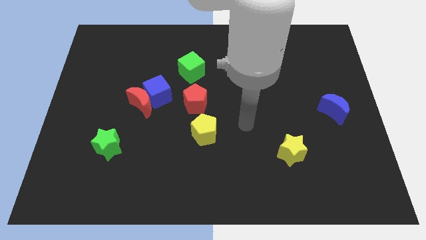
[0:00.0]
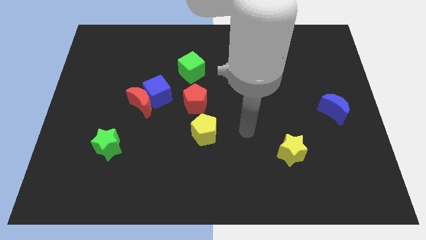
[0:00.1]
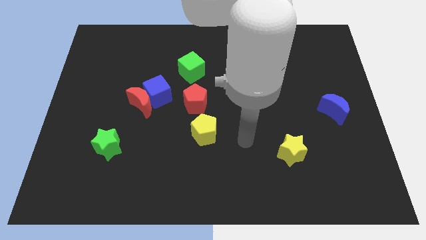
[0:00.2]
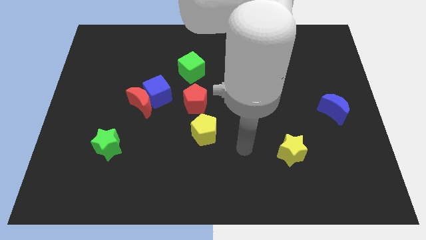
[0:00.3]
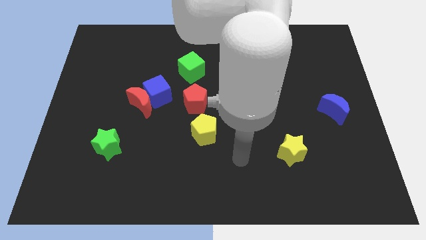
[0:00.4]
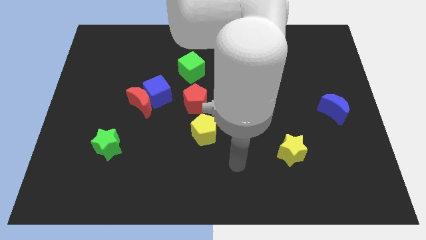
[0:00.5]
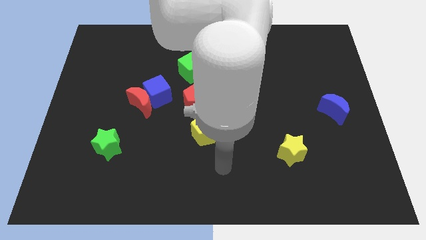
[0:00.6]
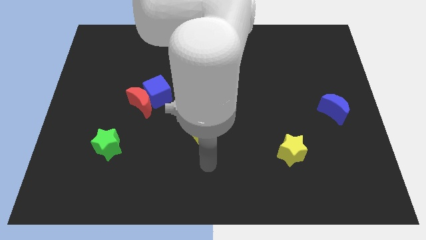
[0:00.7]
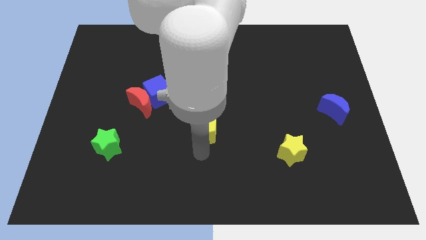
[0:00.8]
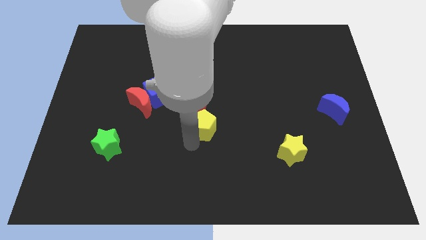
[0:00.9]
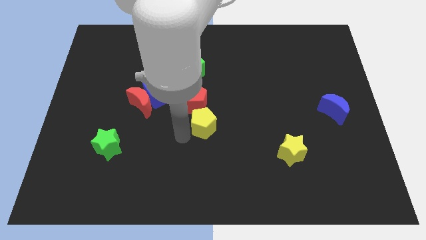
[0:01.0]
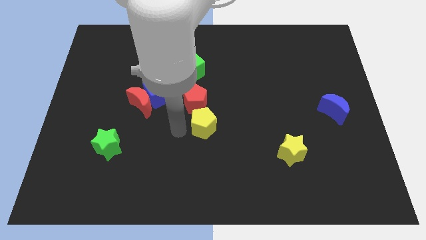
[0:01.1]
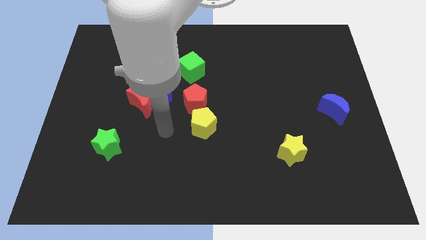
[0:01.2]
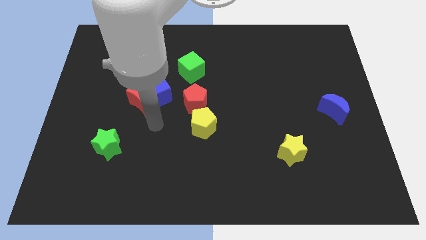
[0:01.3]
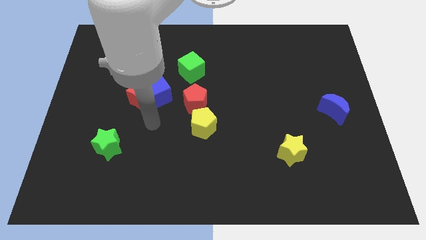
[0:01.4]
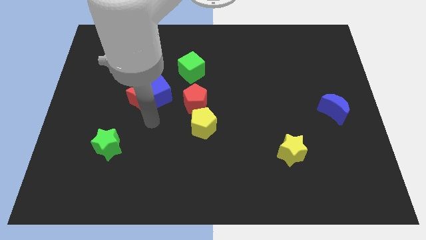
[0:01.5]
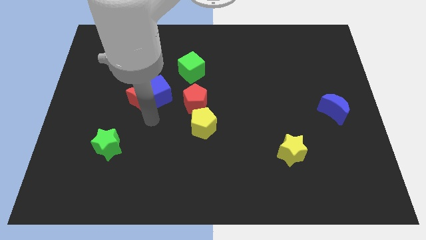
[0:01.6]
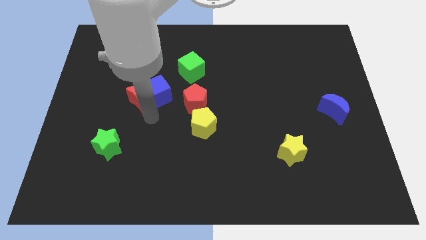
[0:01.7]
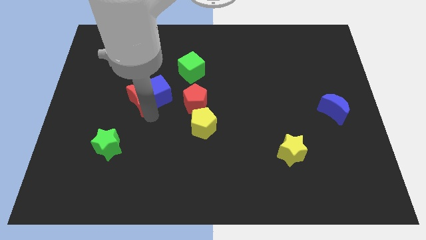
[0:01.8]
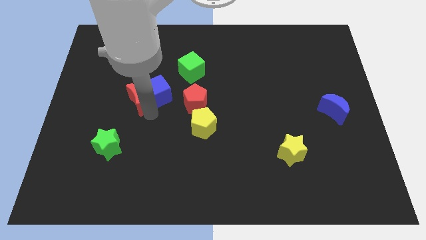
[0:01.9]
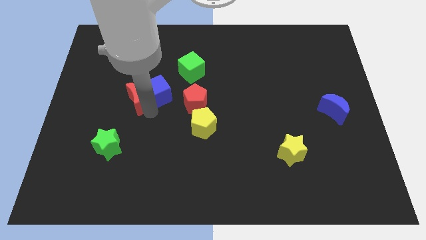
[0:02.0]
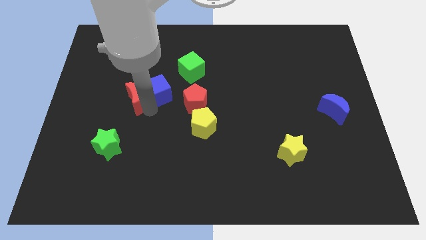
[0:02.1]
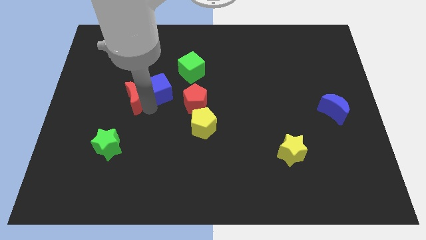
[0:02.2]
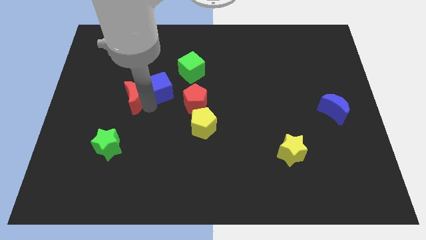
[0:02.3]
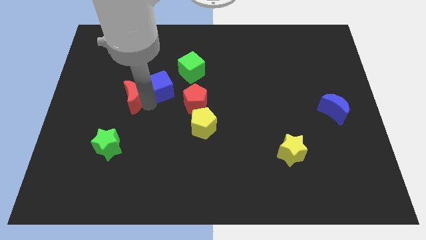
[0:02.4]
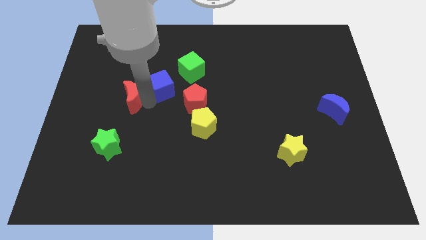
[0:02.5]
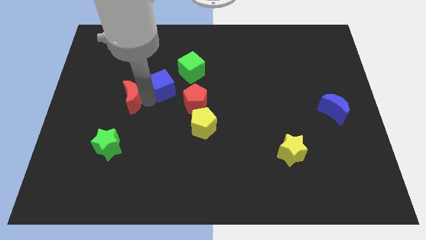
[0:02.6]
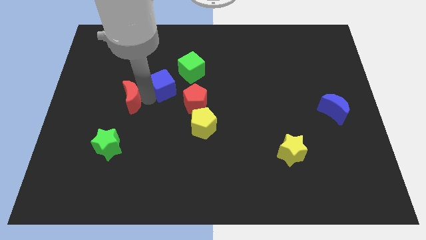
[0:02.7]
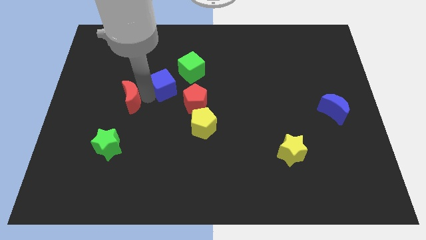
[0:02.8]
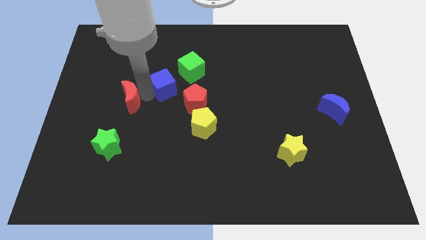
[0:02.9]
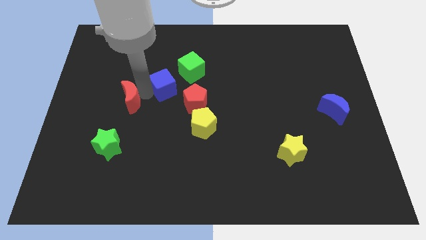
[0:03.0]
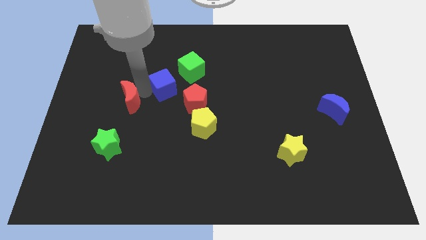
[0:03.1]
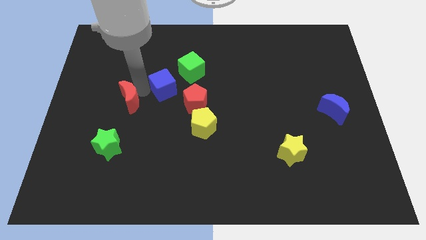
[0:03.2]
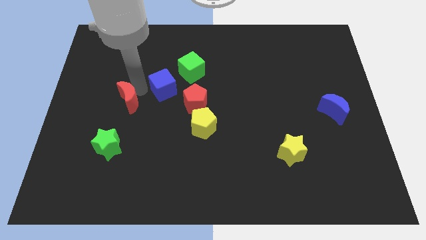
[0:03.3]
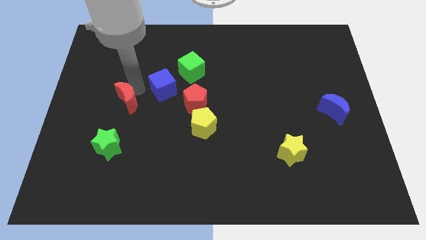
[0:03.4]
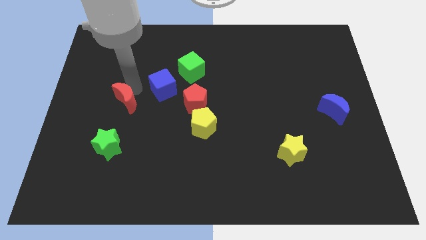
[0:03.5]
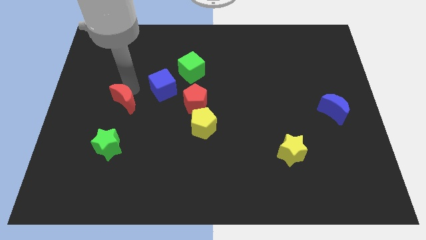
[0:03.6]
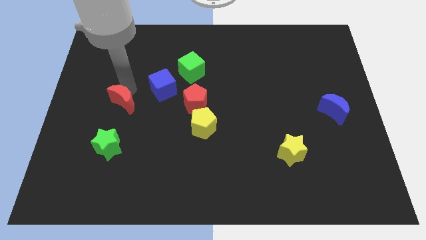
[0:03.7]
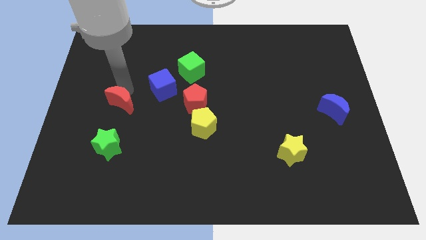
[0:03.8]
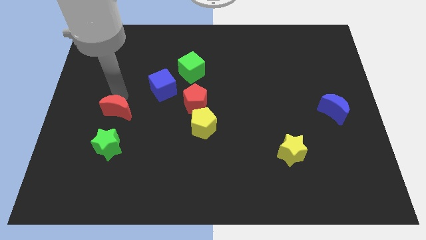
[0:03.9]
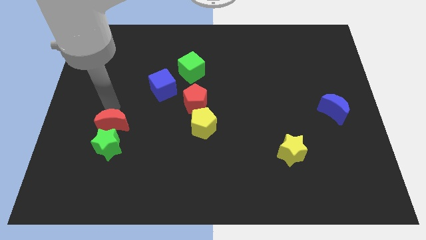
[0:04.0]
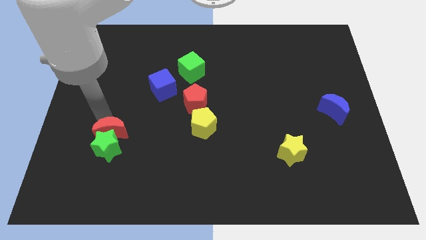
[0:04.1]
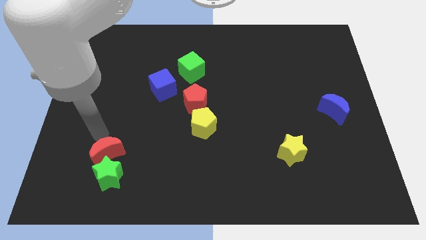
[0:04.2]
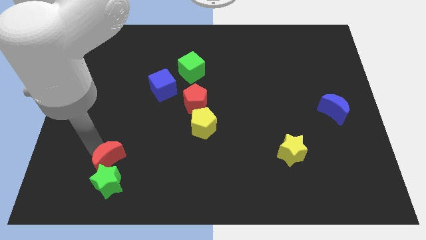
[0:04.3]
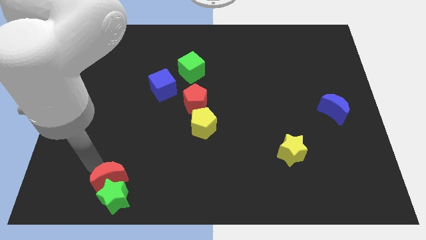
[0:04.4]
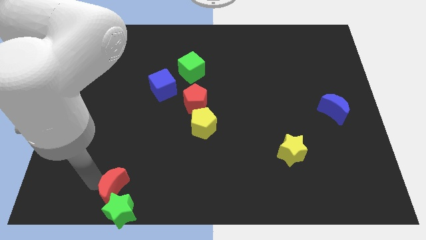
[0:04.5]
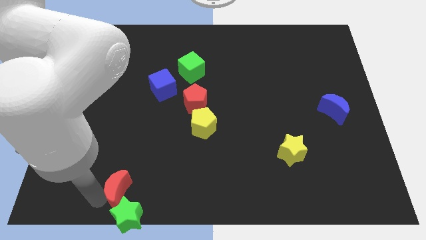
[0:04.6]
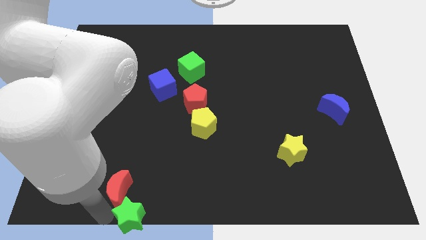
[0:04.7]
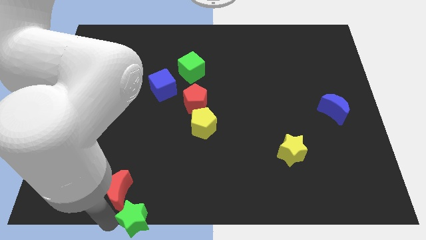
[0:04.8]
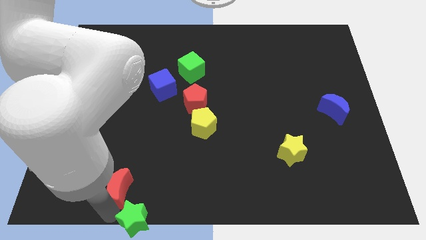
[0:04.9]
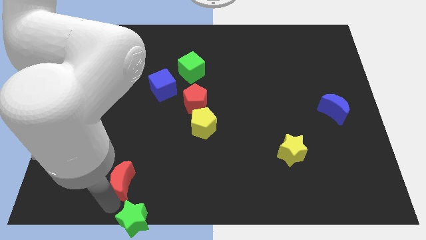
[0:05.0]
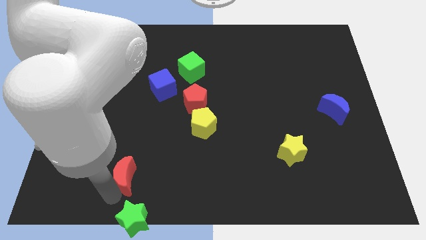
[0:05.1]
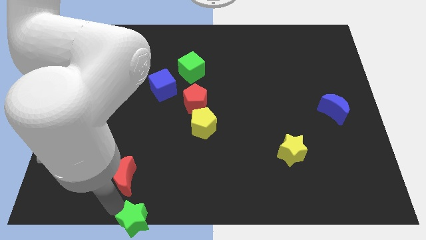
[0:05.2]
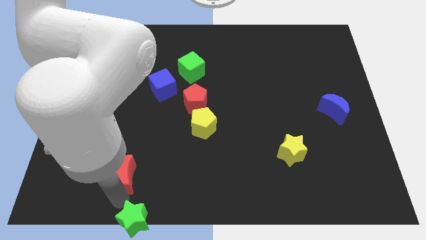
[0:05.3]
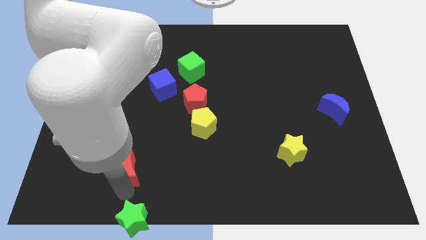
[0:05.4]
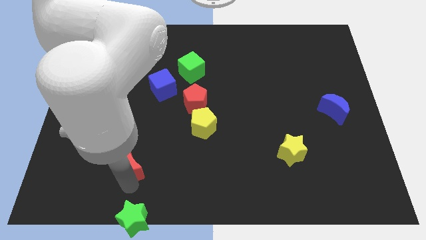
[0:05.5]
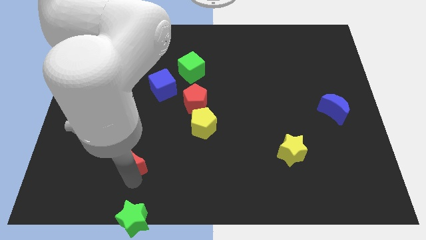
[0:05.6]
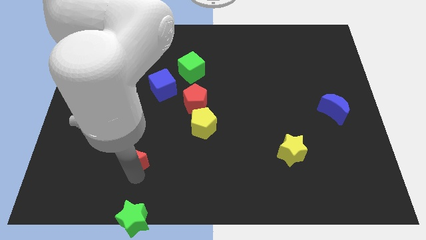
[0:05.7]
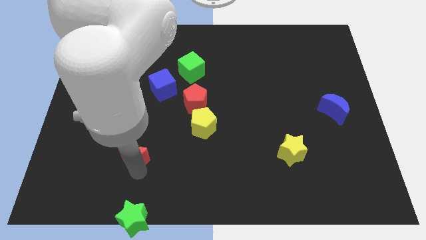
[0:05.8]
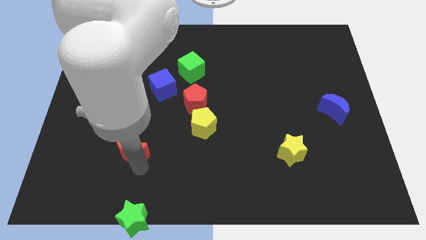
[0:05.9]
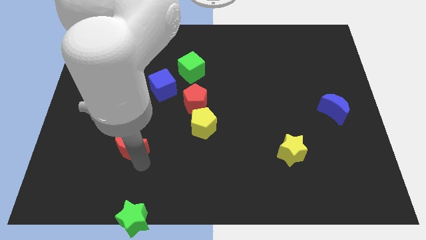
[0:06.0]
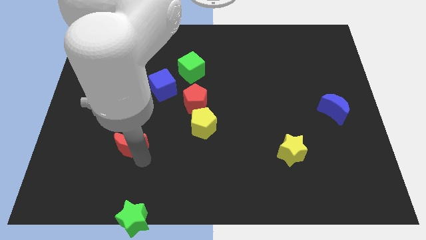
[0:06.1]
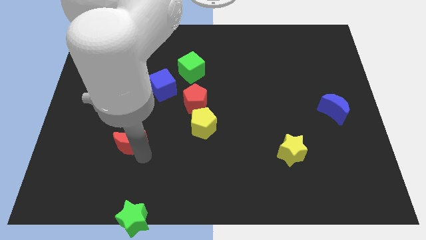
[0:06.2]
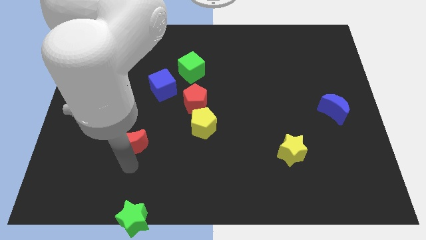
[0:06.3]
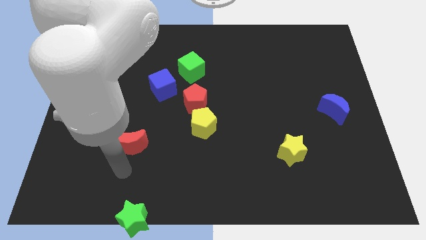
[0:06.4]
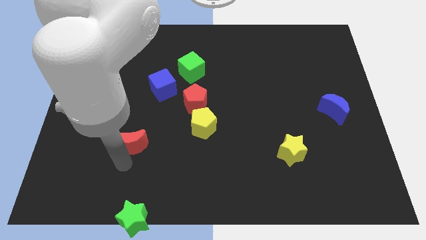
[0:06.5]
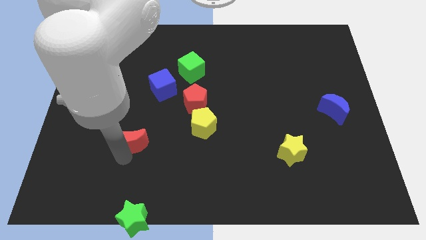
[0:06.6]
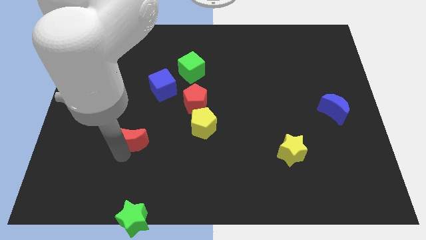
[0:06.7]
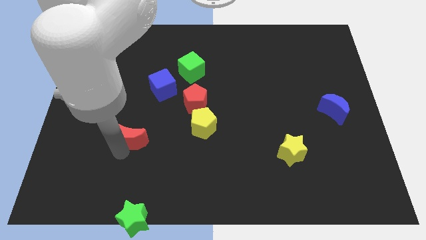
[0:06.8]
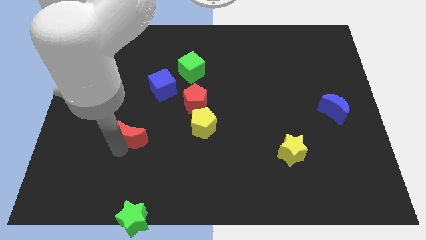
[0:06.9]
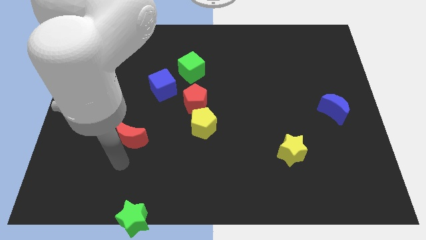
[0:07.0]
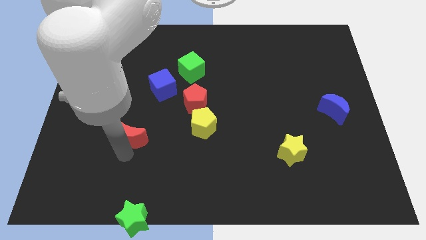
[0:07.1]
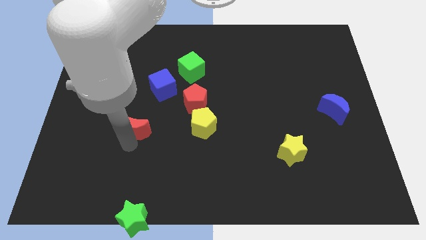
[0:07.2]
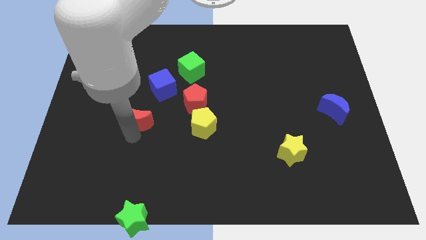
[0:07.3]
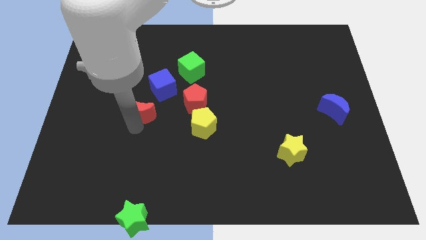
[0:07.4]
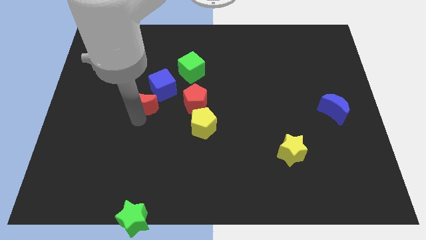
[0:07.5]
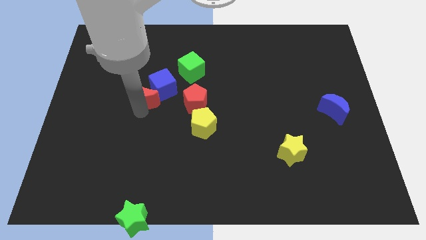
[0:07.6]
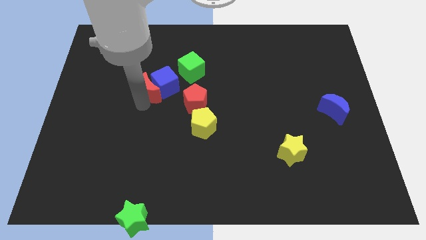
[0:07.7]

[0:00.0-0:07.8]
move the red moon to the bottom left side of the green cube

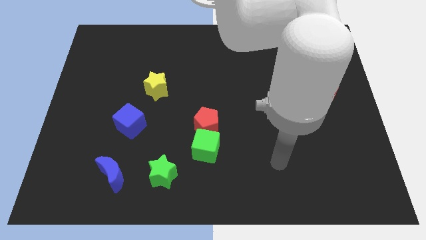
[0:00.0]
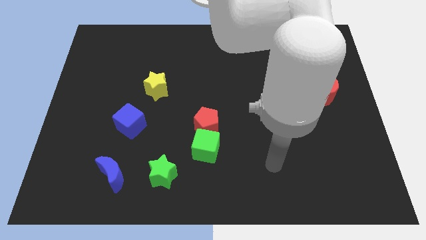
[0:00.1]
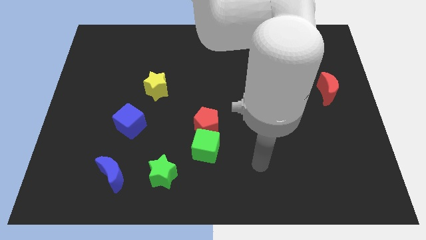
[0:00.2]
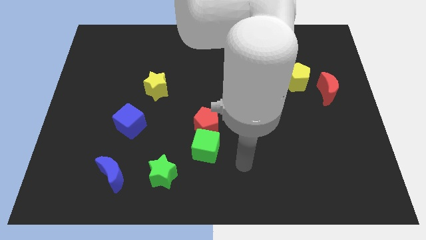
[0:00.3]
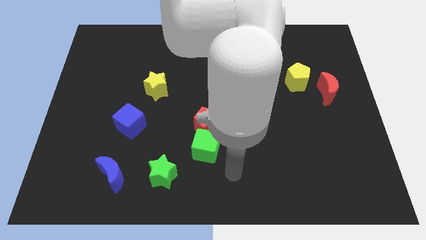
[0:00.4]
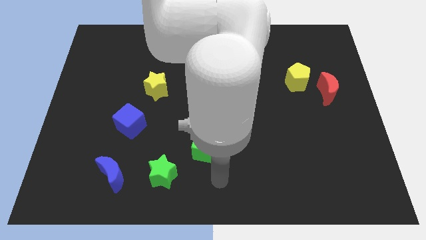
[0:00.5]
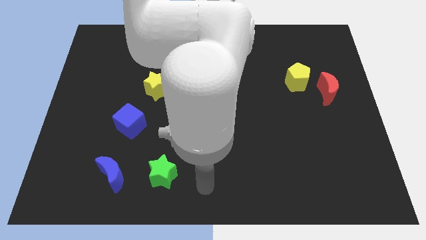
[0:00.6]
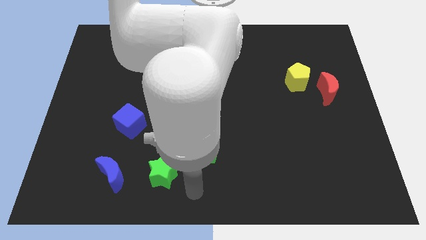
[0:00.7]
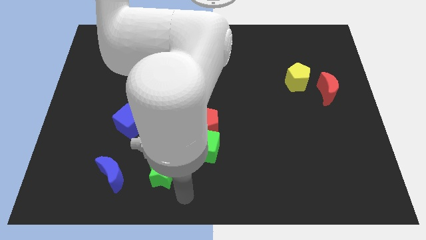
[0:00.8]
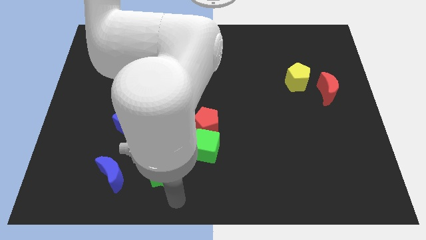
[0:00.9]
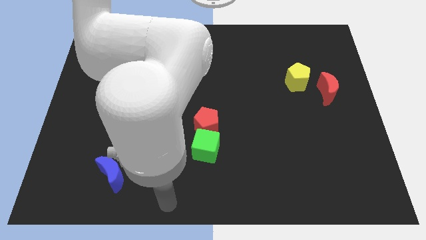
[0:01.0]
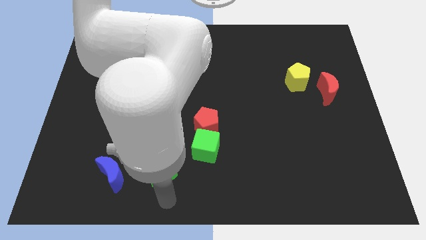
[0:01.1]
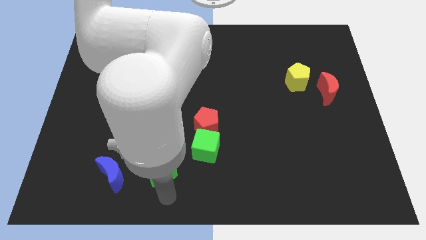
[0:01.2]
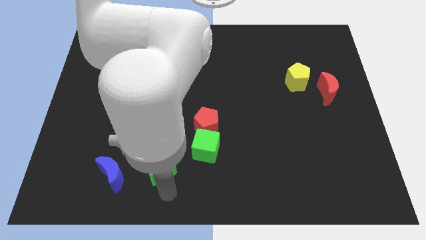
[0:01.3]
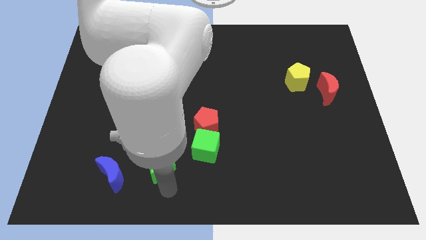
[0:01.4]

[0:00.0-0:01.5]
slide the green star to the left side of the green cube
